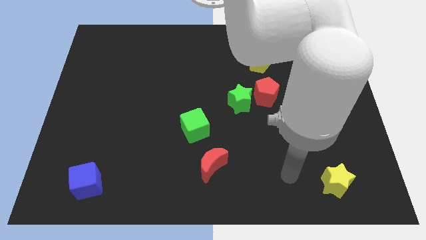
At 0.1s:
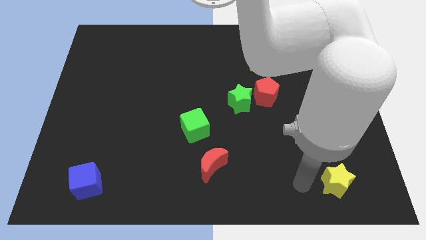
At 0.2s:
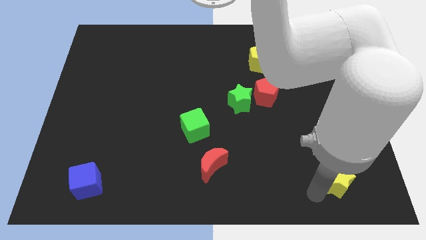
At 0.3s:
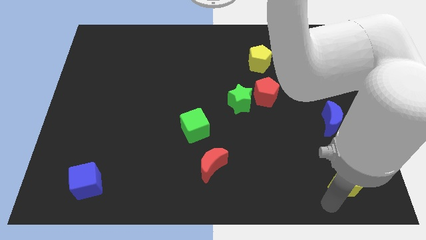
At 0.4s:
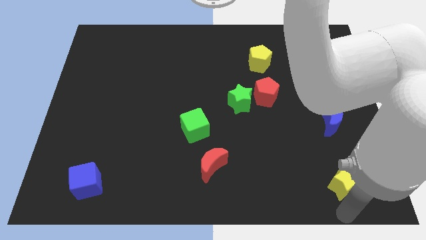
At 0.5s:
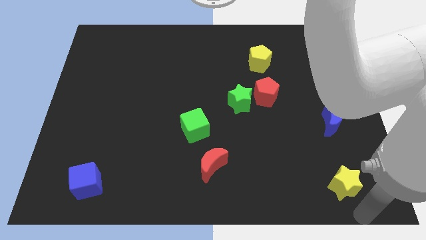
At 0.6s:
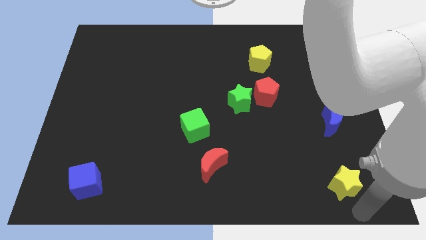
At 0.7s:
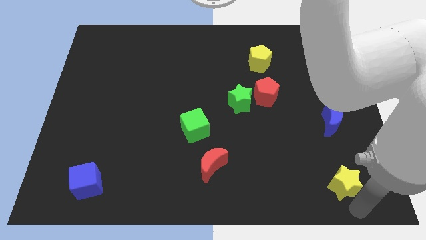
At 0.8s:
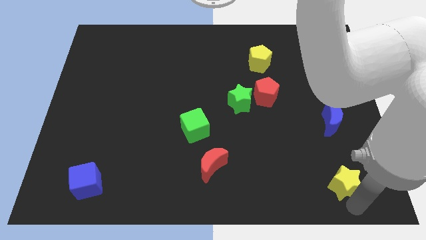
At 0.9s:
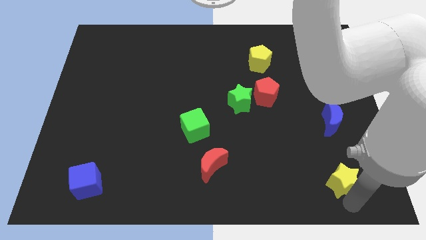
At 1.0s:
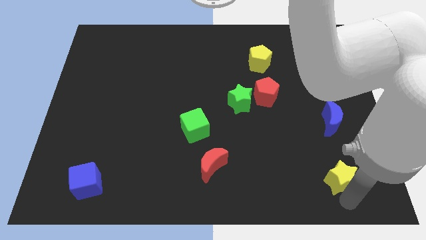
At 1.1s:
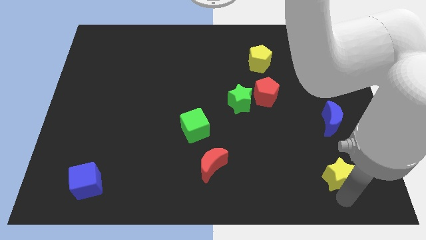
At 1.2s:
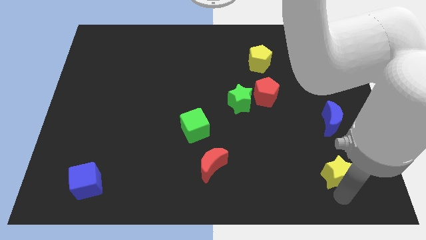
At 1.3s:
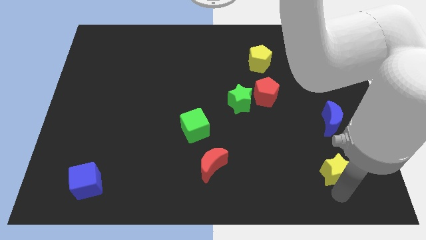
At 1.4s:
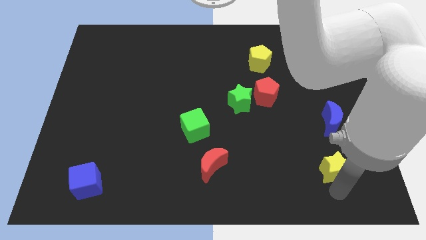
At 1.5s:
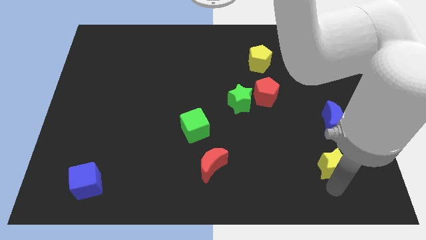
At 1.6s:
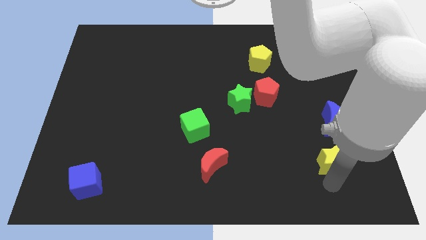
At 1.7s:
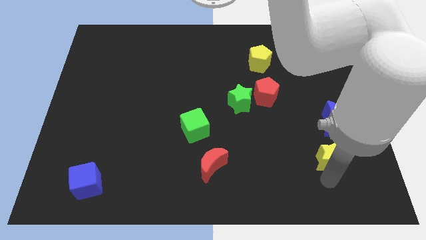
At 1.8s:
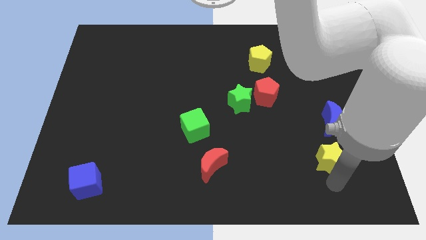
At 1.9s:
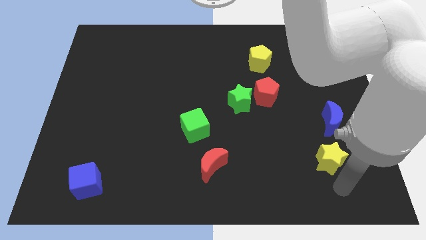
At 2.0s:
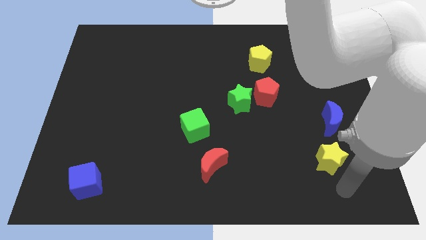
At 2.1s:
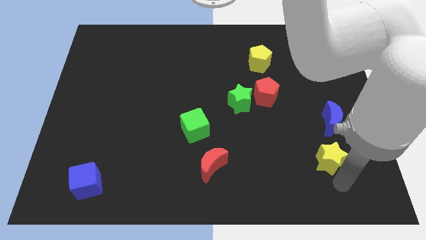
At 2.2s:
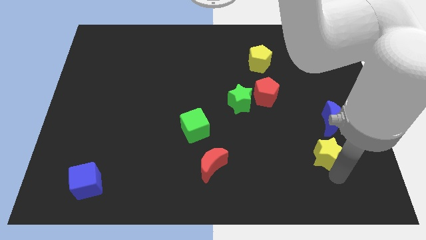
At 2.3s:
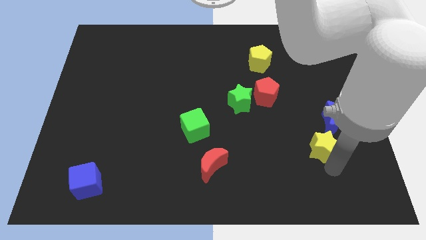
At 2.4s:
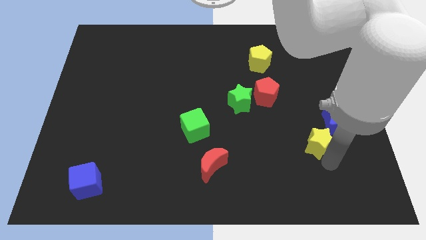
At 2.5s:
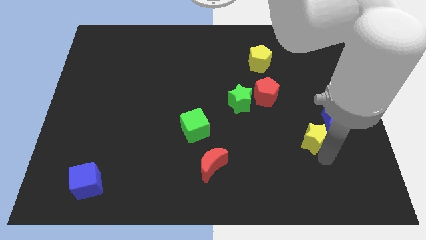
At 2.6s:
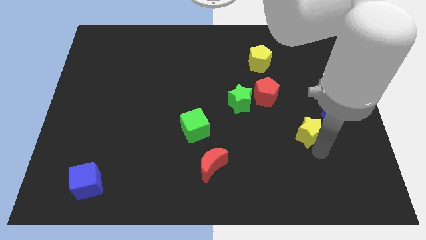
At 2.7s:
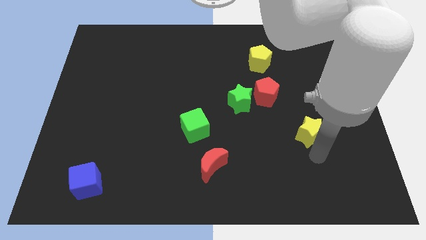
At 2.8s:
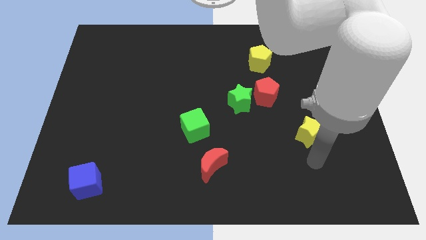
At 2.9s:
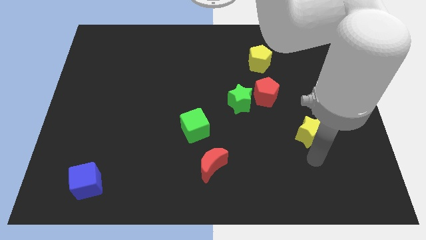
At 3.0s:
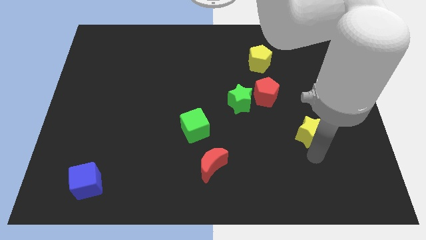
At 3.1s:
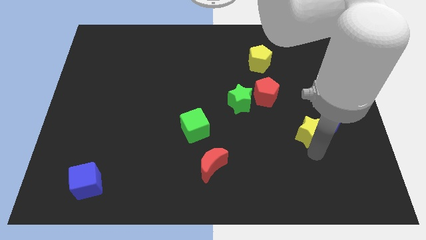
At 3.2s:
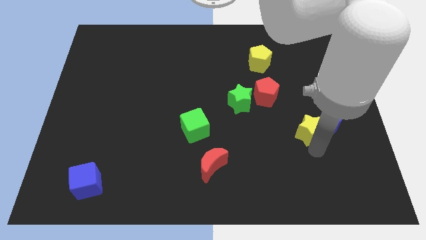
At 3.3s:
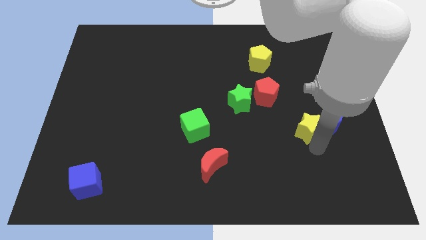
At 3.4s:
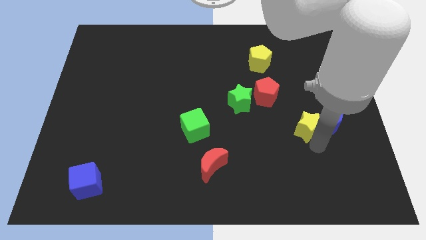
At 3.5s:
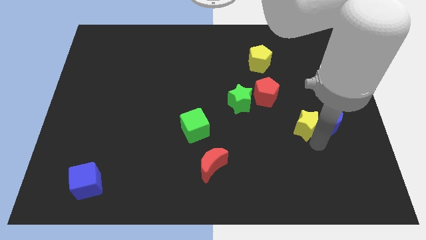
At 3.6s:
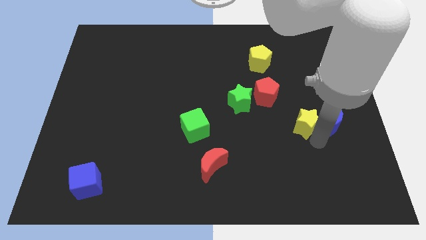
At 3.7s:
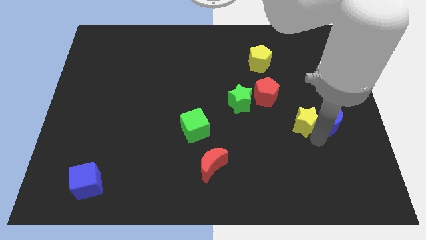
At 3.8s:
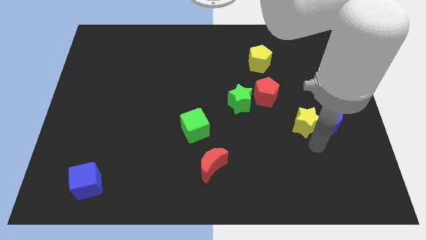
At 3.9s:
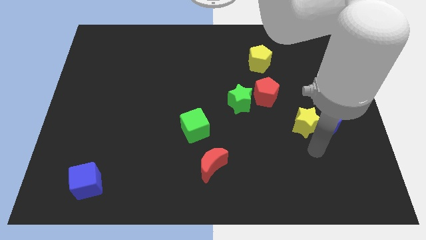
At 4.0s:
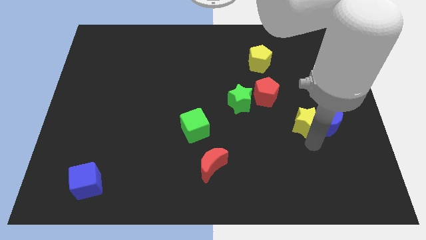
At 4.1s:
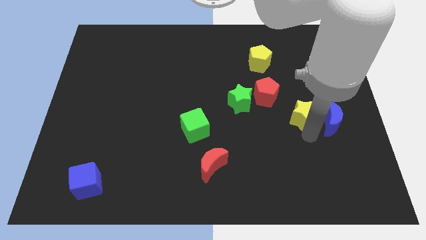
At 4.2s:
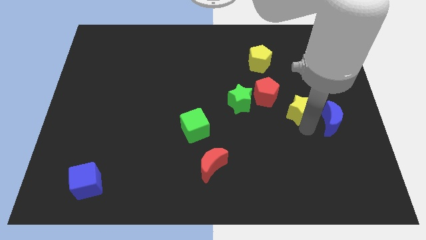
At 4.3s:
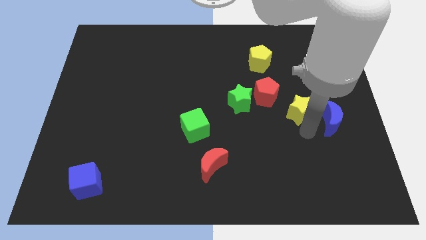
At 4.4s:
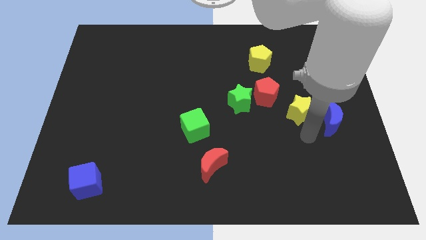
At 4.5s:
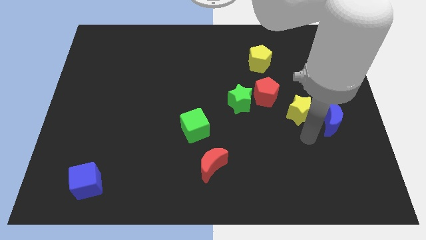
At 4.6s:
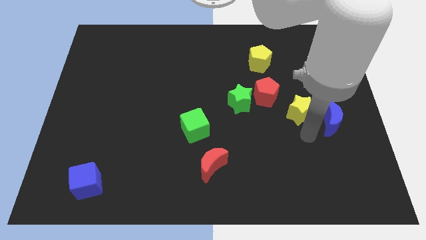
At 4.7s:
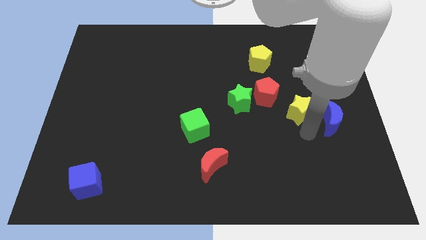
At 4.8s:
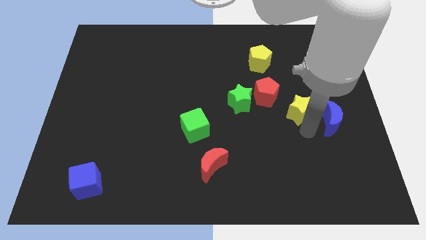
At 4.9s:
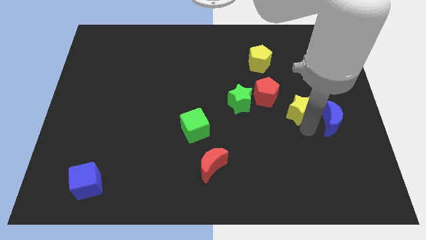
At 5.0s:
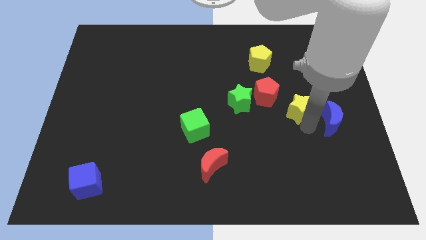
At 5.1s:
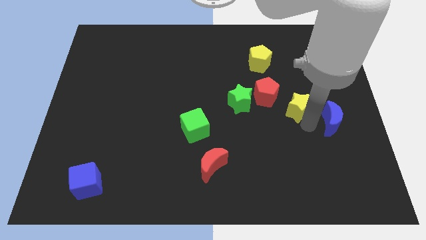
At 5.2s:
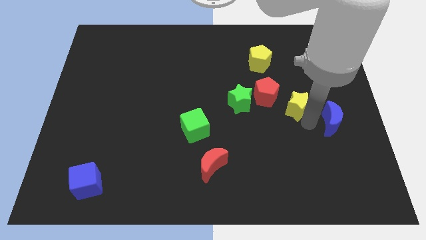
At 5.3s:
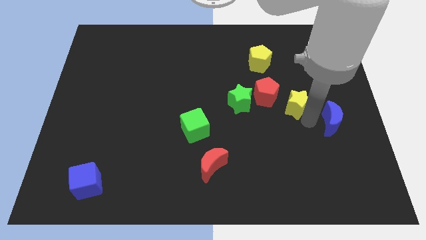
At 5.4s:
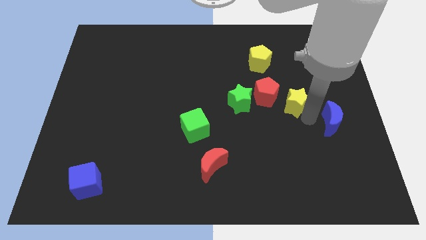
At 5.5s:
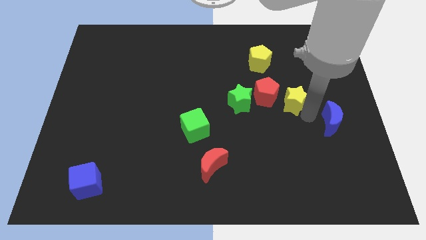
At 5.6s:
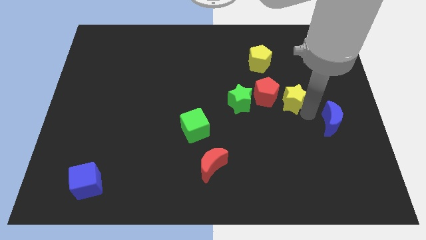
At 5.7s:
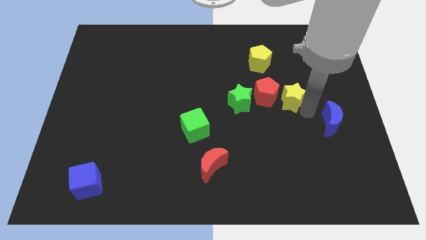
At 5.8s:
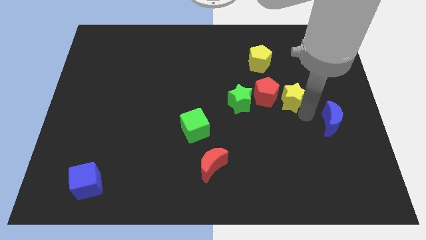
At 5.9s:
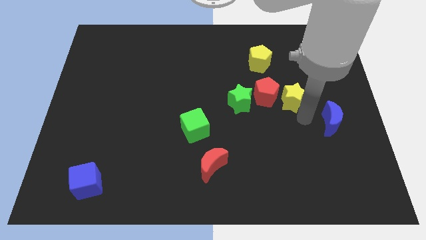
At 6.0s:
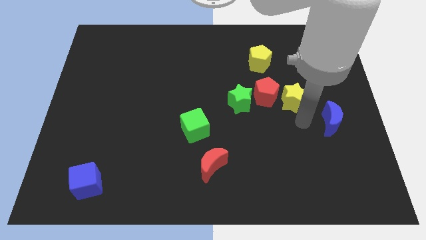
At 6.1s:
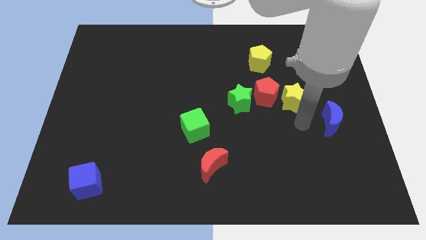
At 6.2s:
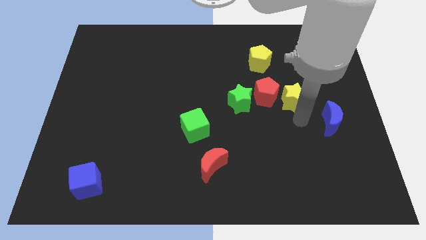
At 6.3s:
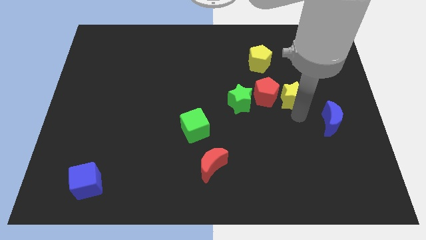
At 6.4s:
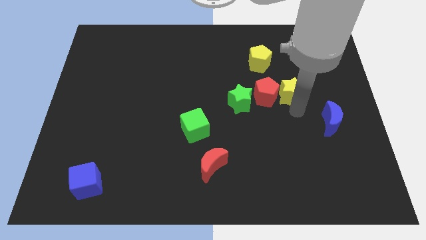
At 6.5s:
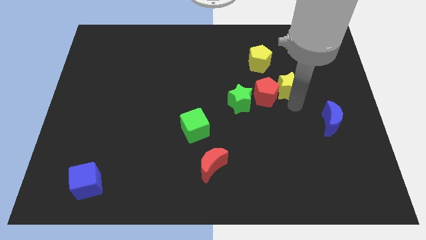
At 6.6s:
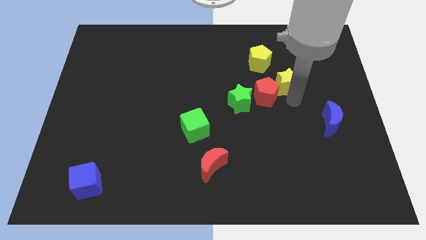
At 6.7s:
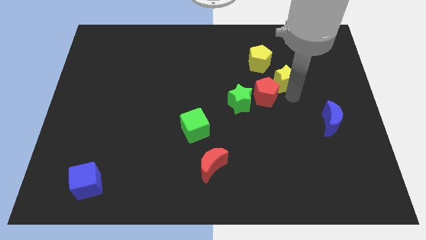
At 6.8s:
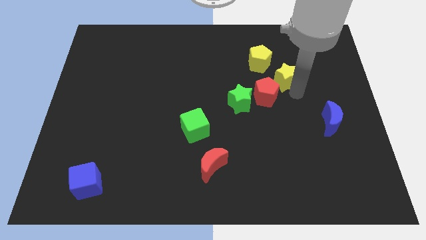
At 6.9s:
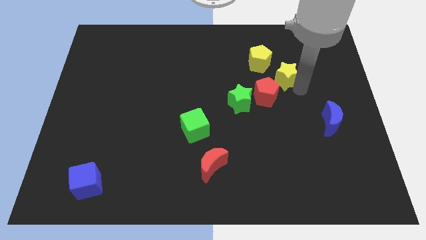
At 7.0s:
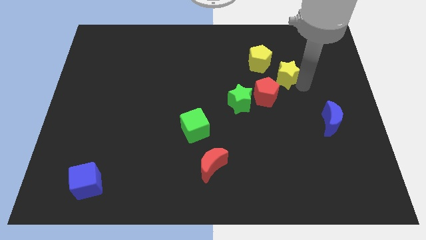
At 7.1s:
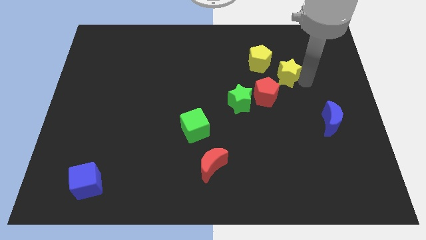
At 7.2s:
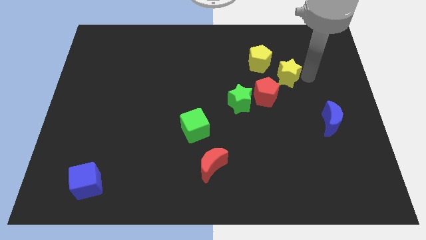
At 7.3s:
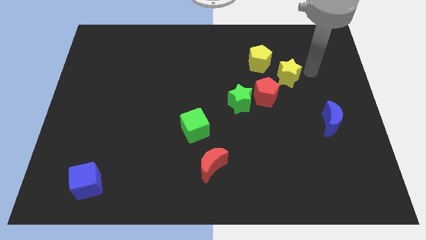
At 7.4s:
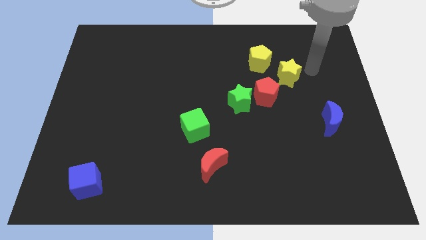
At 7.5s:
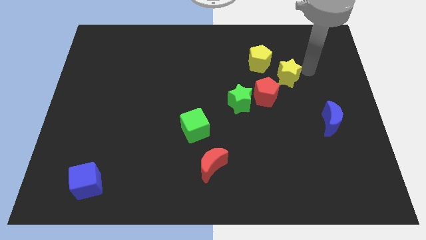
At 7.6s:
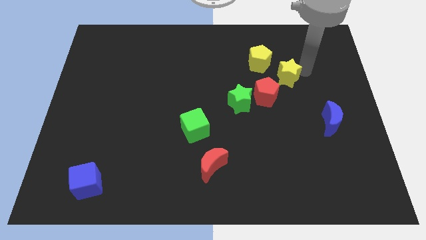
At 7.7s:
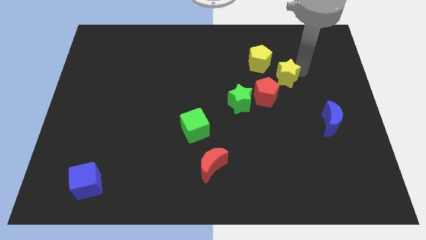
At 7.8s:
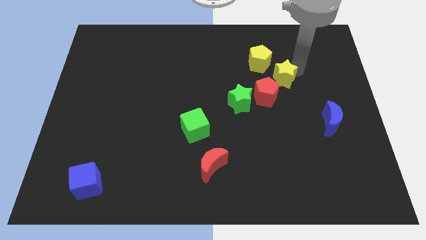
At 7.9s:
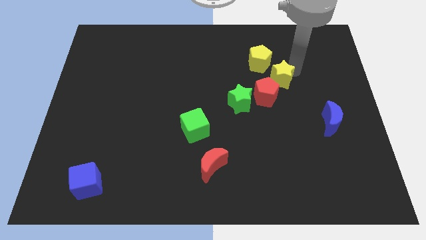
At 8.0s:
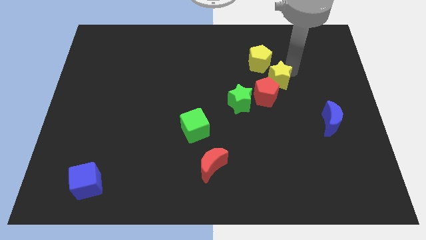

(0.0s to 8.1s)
push the yellow star diagonally up and to the right of the green star
